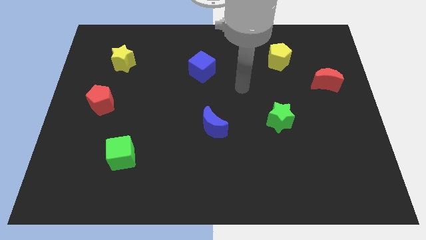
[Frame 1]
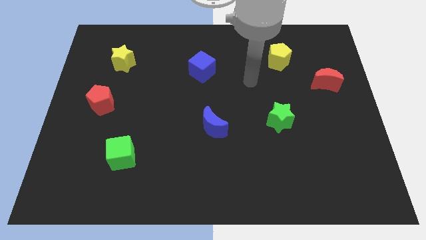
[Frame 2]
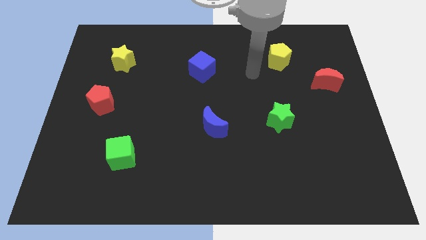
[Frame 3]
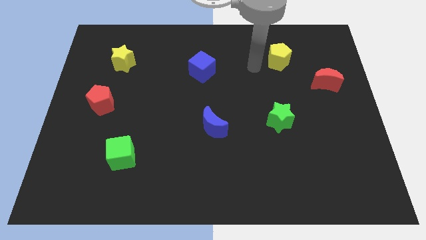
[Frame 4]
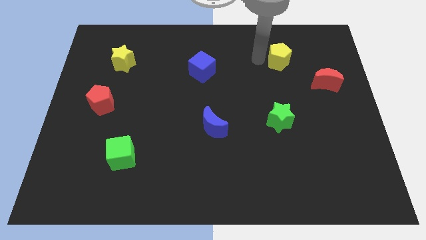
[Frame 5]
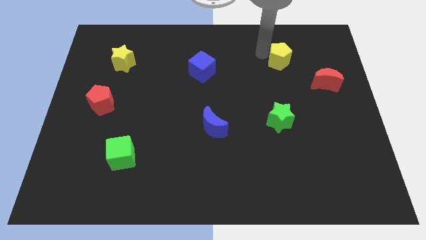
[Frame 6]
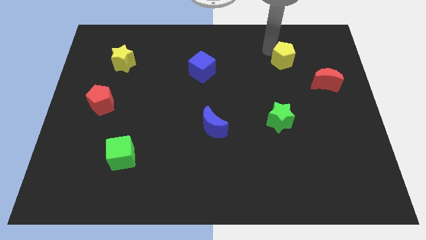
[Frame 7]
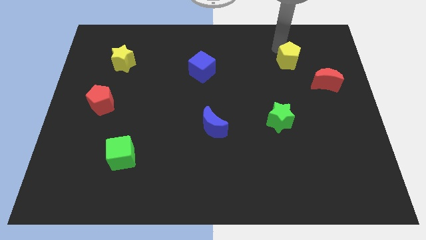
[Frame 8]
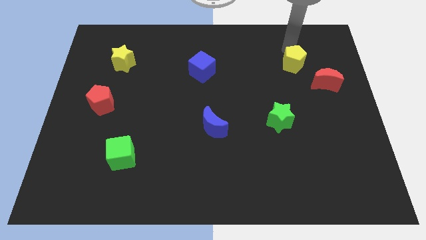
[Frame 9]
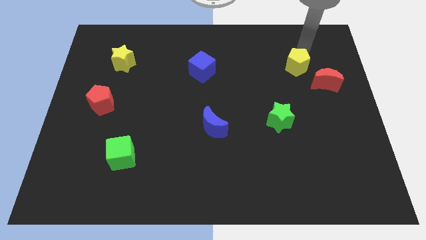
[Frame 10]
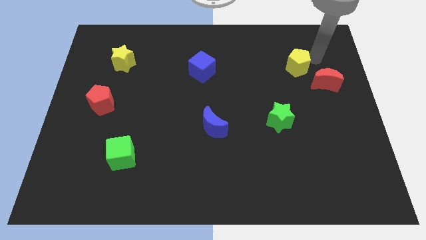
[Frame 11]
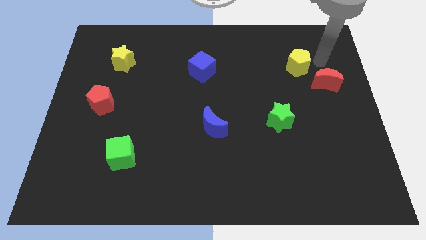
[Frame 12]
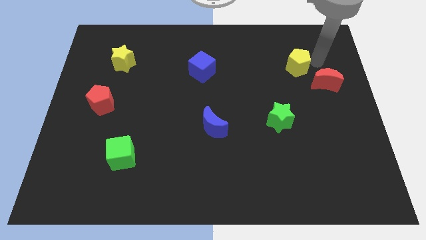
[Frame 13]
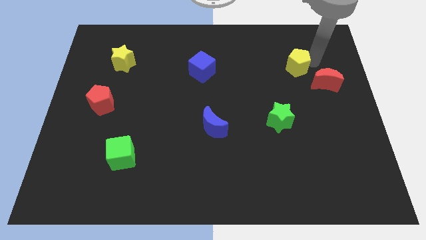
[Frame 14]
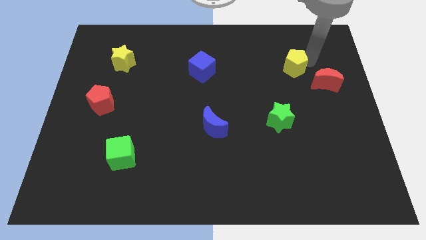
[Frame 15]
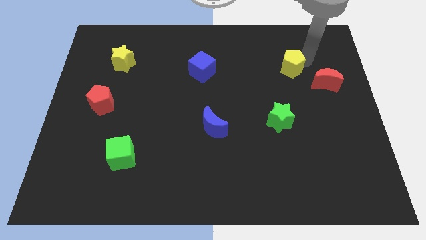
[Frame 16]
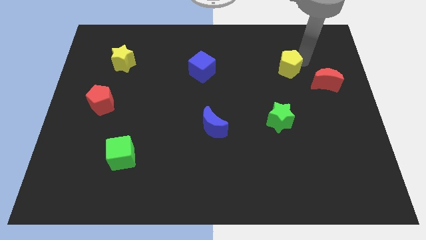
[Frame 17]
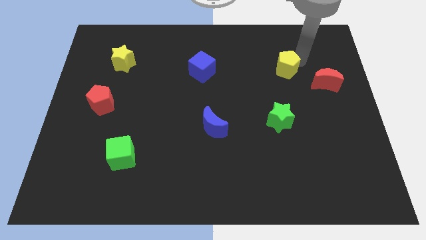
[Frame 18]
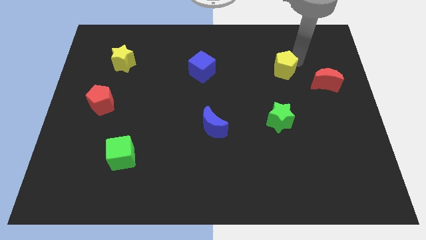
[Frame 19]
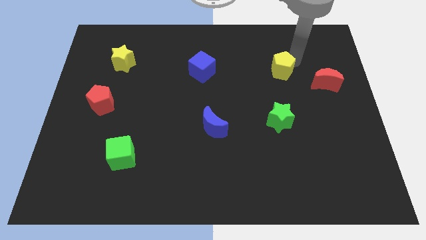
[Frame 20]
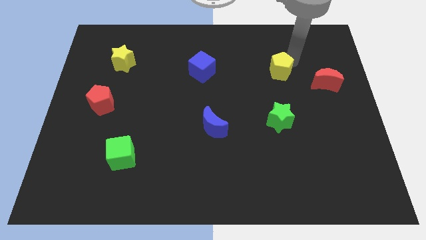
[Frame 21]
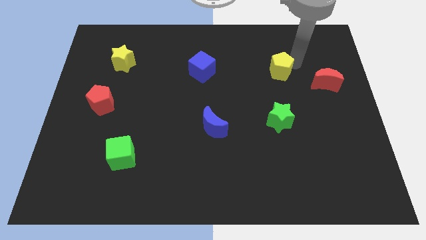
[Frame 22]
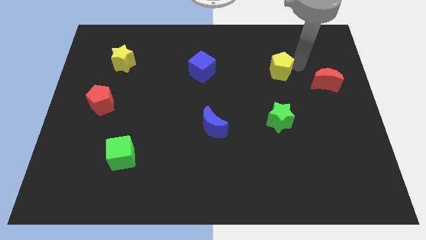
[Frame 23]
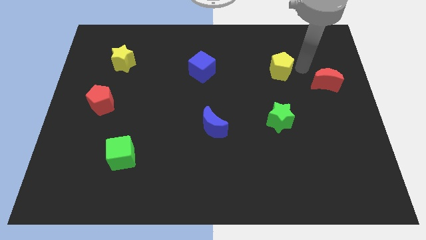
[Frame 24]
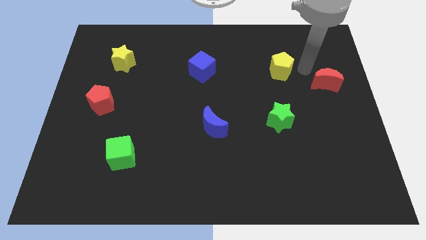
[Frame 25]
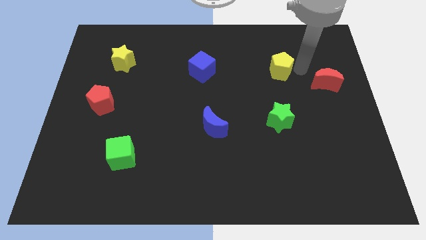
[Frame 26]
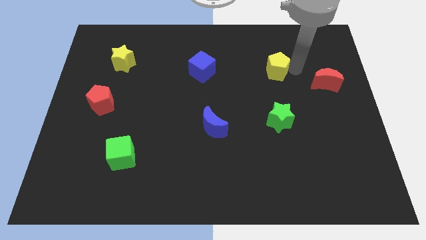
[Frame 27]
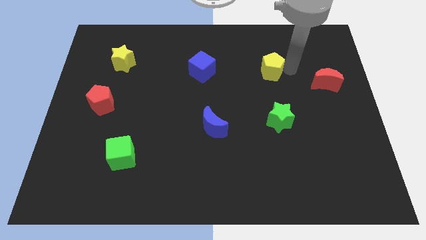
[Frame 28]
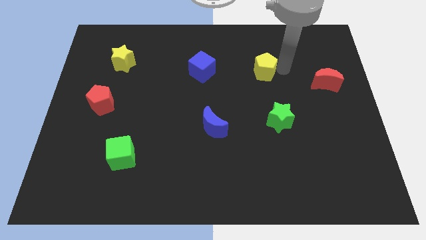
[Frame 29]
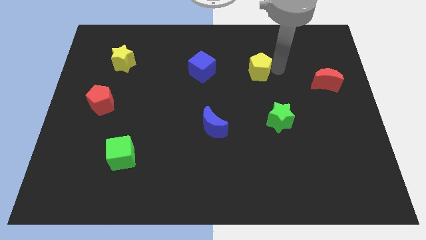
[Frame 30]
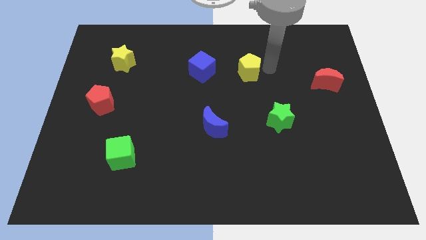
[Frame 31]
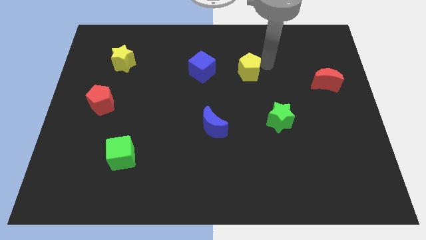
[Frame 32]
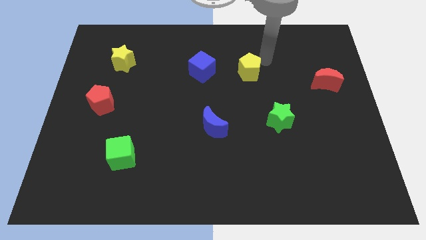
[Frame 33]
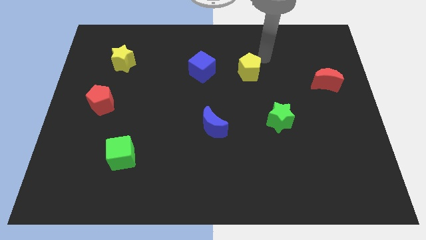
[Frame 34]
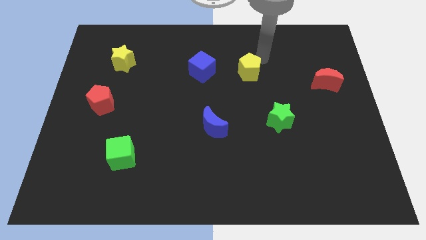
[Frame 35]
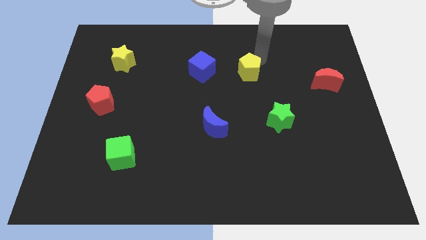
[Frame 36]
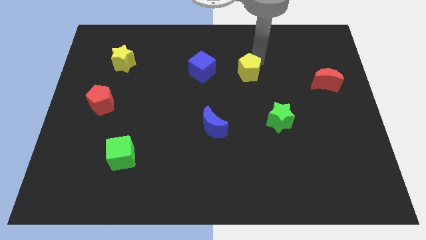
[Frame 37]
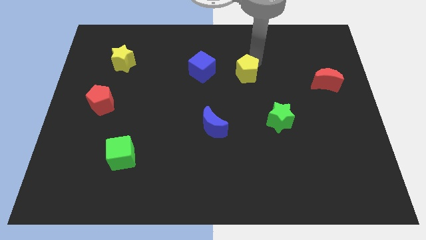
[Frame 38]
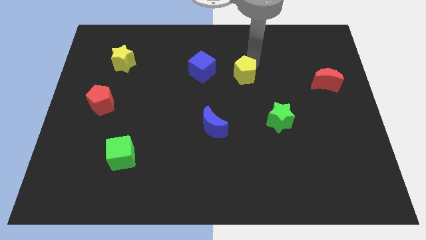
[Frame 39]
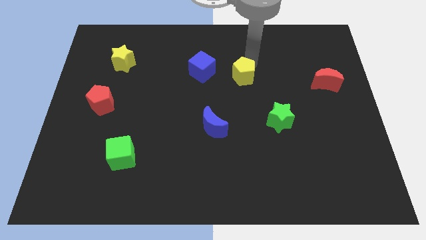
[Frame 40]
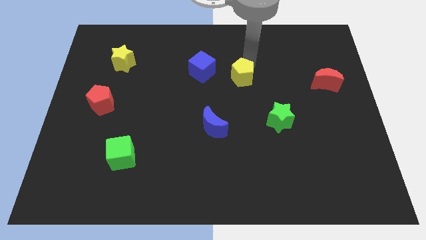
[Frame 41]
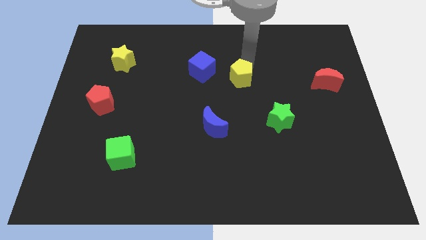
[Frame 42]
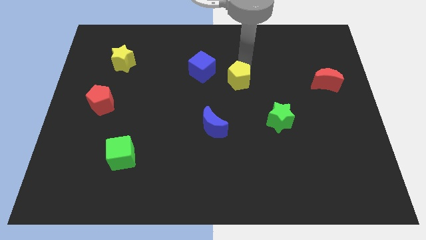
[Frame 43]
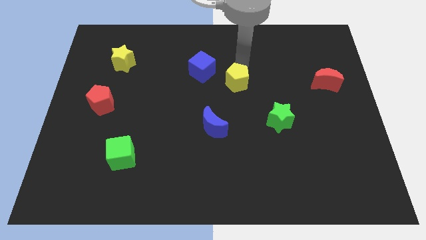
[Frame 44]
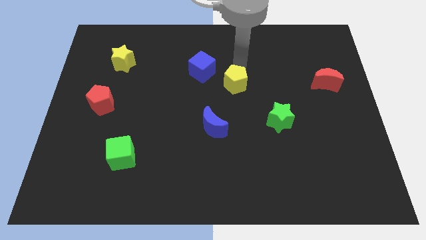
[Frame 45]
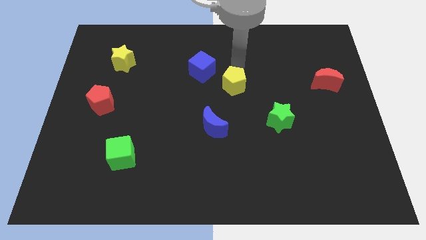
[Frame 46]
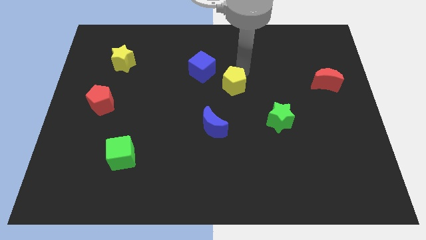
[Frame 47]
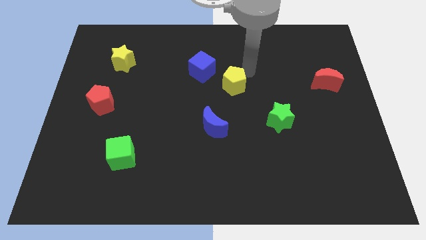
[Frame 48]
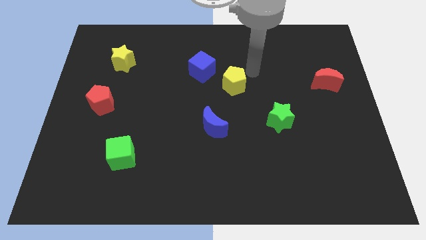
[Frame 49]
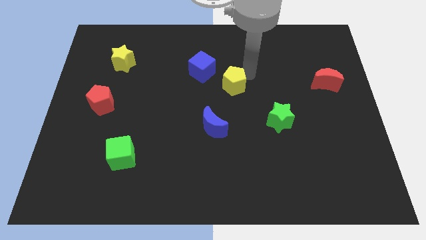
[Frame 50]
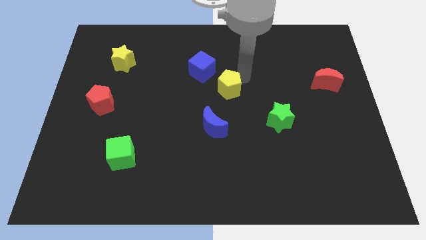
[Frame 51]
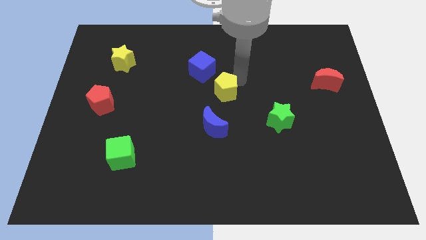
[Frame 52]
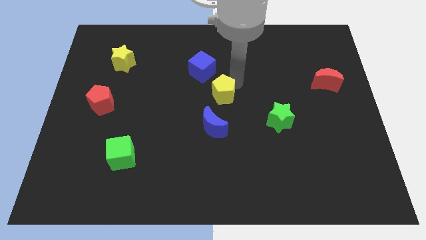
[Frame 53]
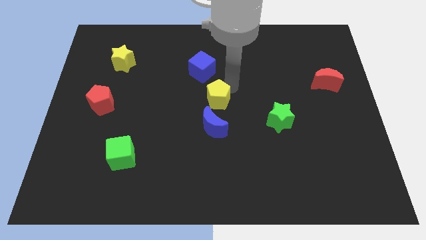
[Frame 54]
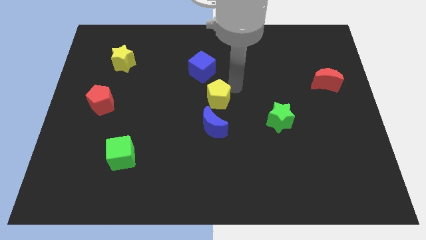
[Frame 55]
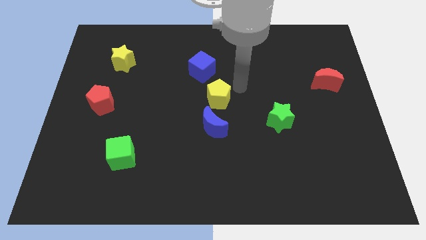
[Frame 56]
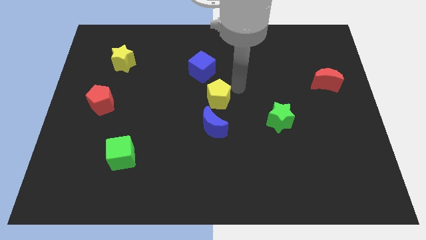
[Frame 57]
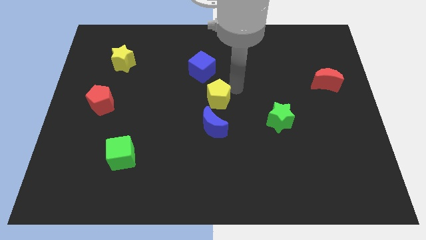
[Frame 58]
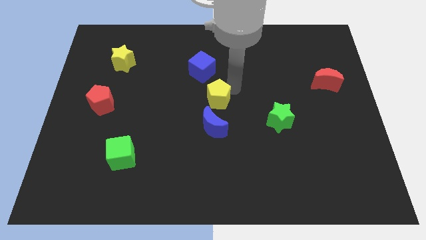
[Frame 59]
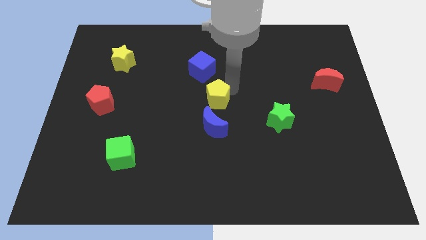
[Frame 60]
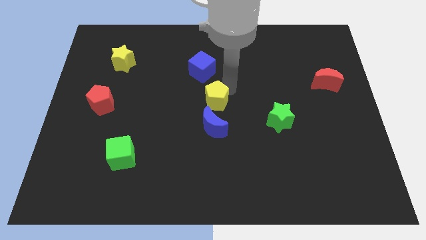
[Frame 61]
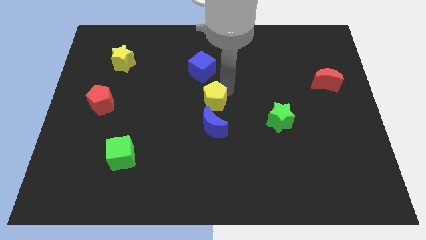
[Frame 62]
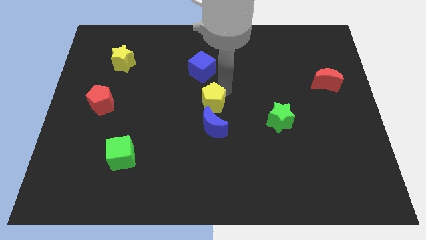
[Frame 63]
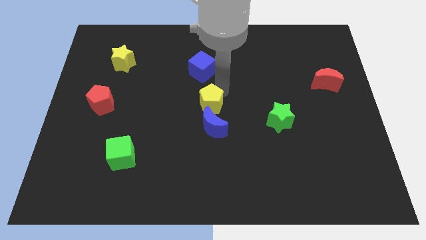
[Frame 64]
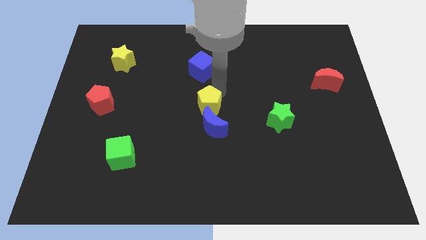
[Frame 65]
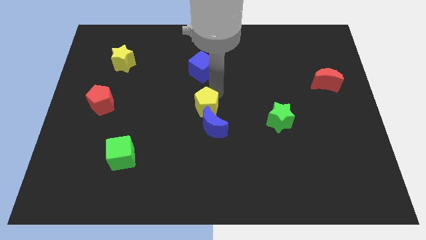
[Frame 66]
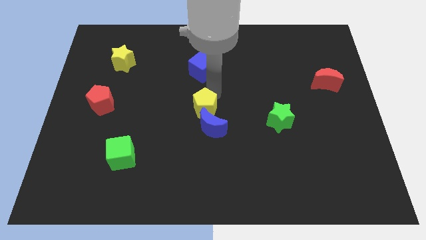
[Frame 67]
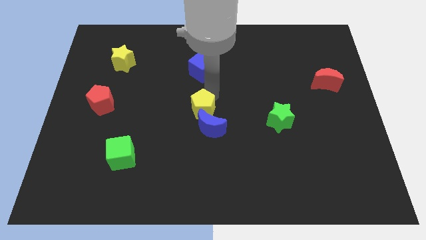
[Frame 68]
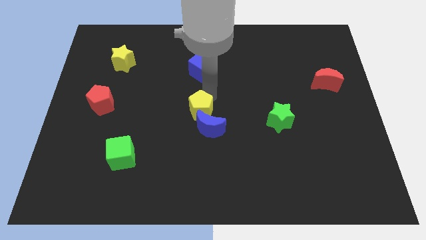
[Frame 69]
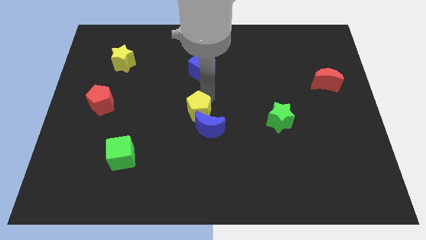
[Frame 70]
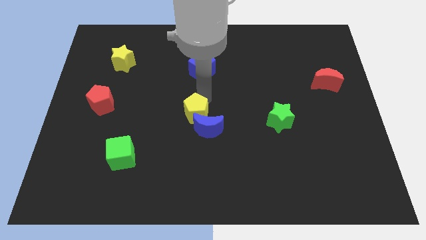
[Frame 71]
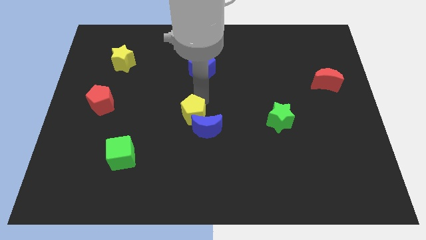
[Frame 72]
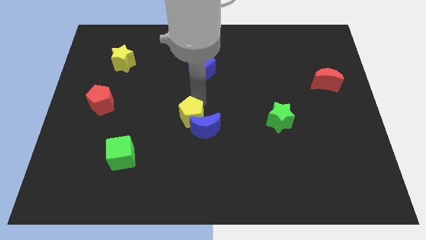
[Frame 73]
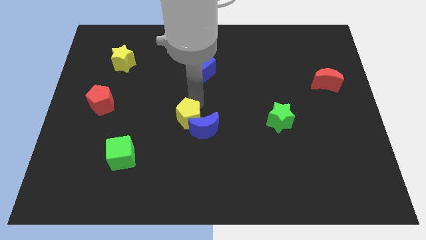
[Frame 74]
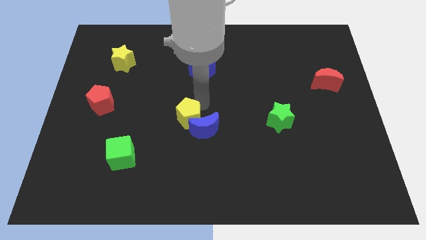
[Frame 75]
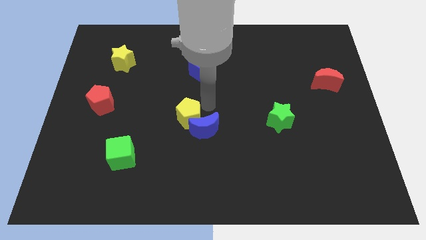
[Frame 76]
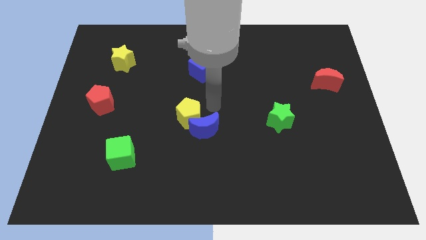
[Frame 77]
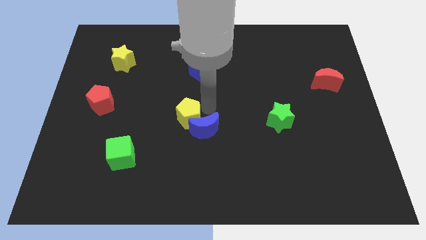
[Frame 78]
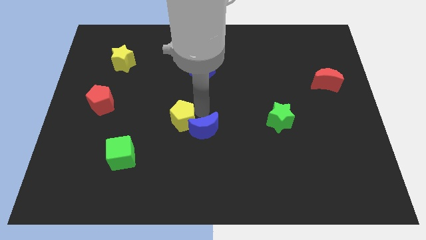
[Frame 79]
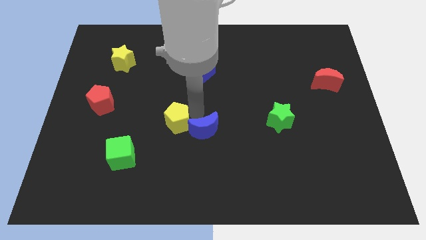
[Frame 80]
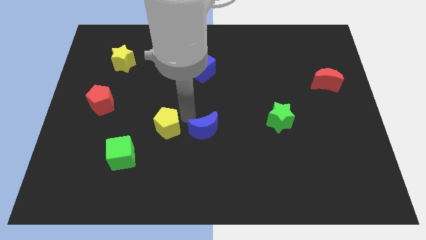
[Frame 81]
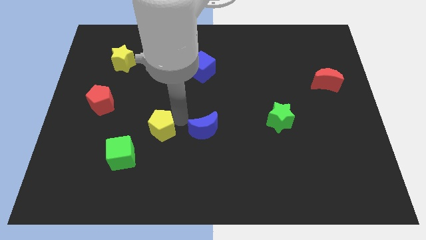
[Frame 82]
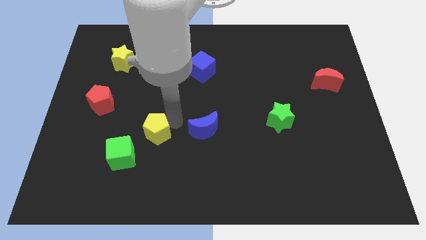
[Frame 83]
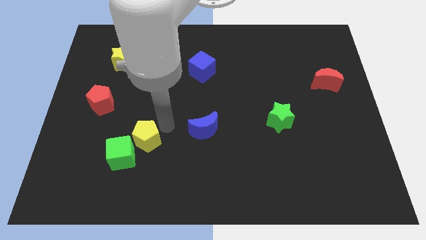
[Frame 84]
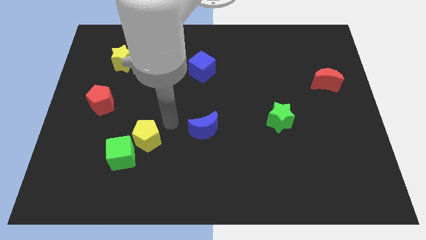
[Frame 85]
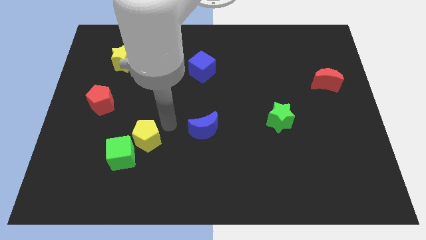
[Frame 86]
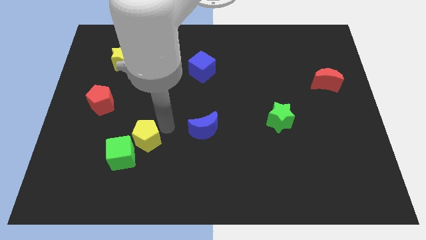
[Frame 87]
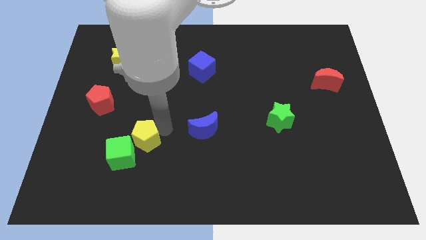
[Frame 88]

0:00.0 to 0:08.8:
push the yellow pentagon close to the green cube
